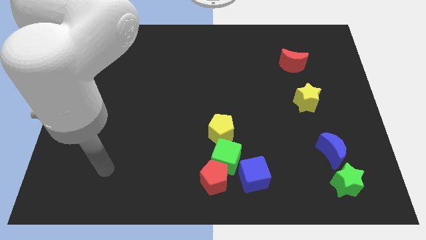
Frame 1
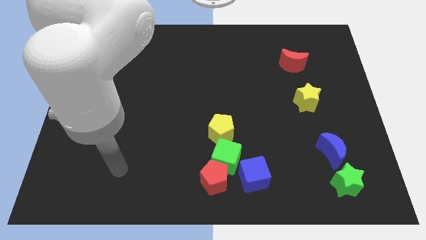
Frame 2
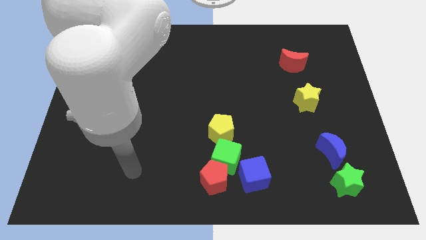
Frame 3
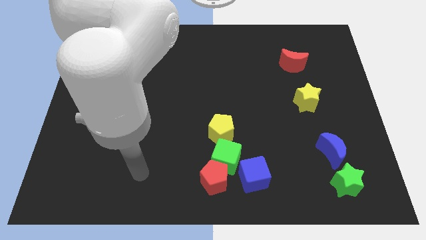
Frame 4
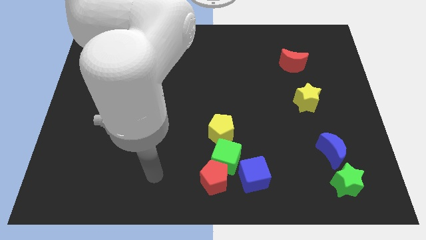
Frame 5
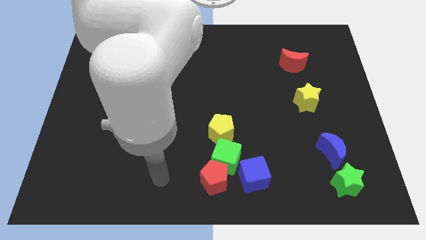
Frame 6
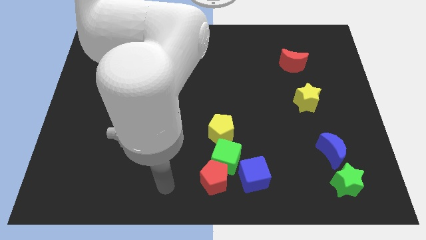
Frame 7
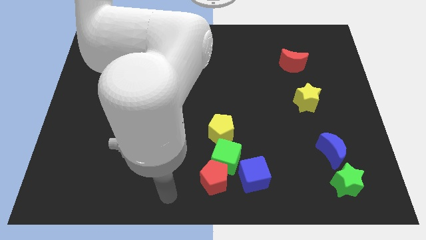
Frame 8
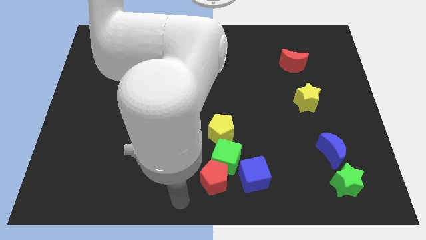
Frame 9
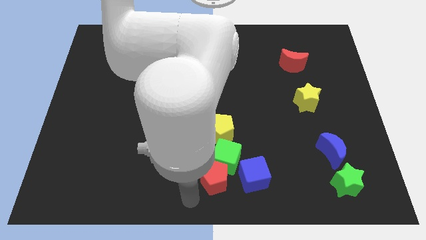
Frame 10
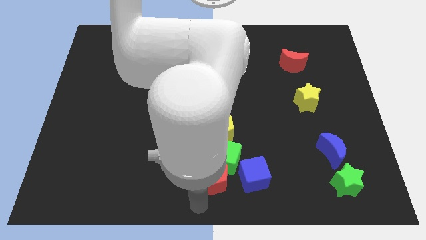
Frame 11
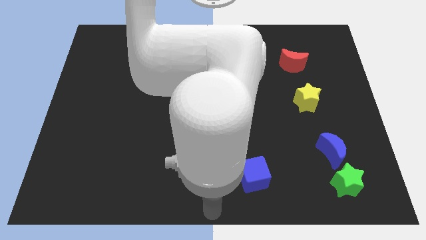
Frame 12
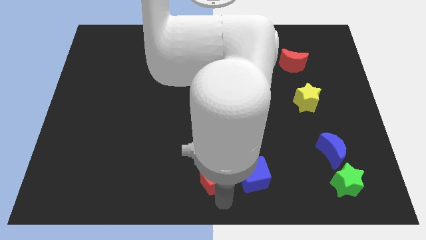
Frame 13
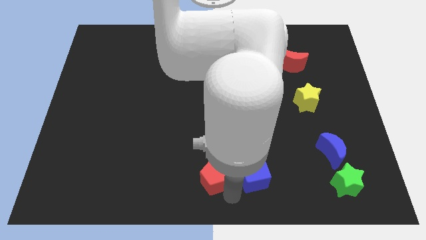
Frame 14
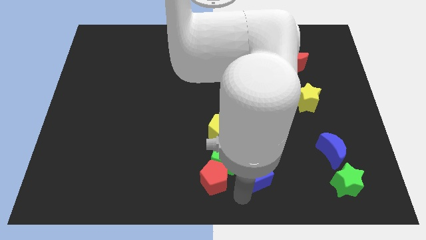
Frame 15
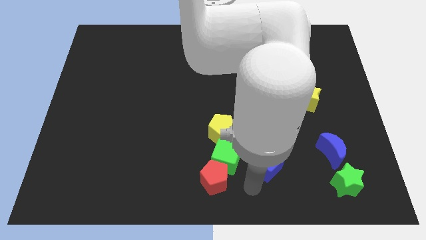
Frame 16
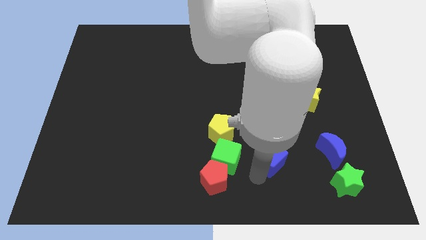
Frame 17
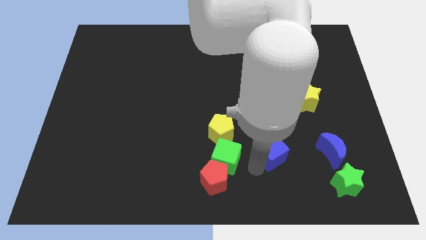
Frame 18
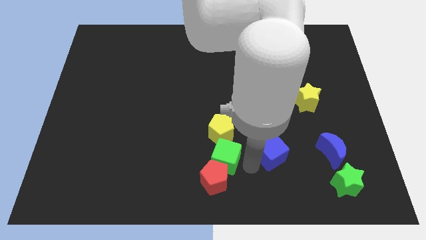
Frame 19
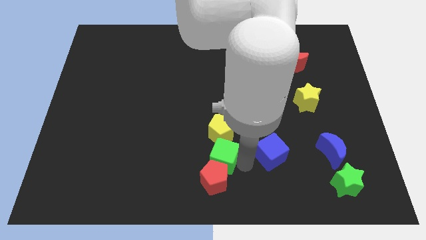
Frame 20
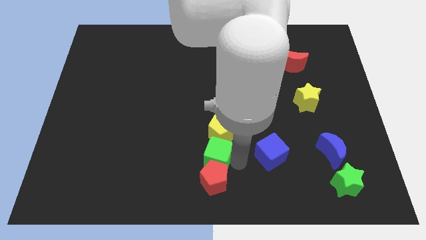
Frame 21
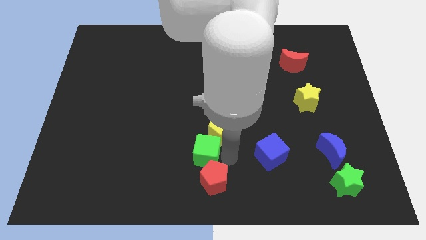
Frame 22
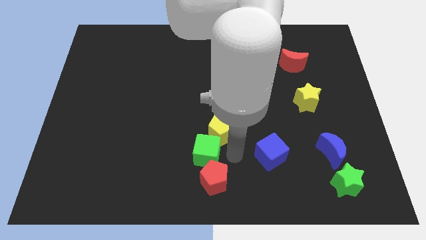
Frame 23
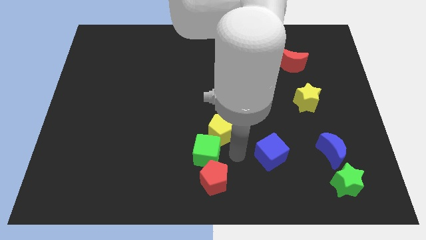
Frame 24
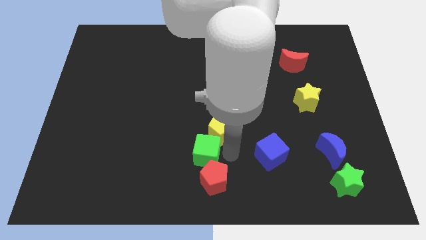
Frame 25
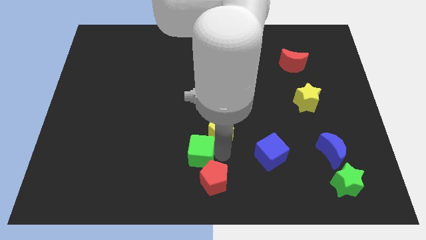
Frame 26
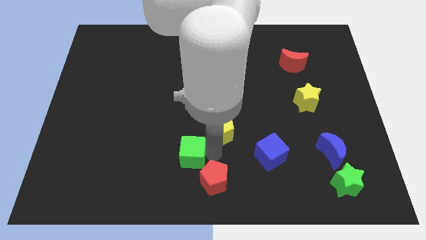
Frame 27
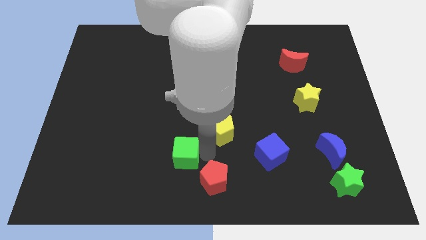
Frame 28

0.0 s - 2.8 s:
move the green cube away from the red pentagon, blue cube, and yellow pentagon

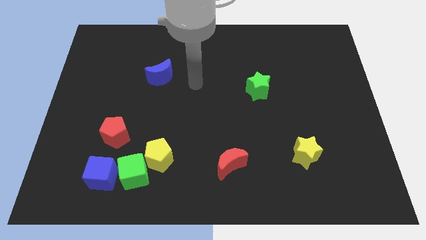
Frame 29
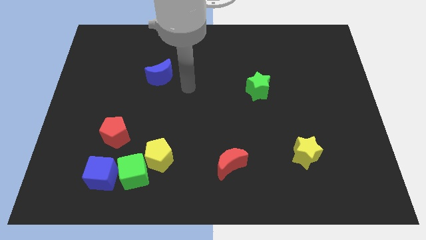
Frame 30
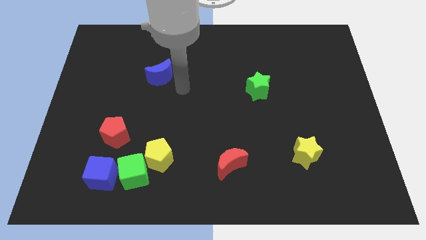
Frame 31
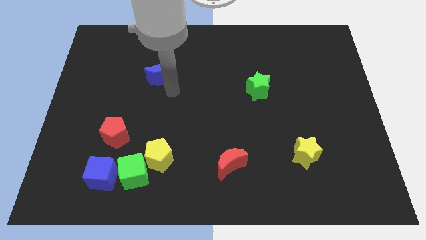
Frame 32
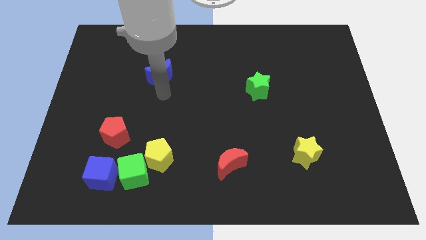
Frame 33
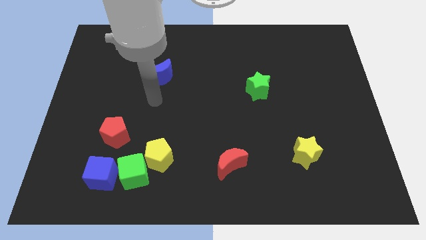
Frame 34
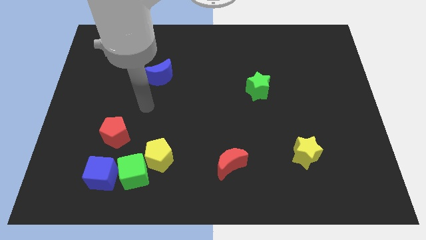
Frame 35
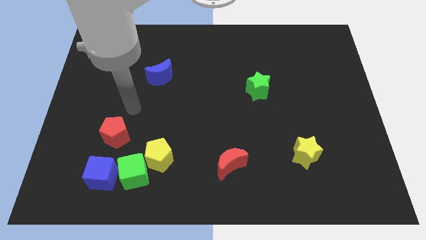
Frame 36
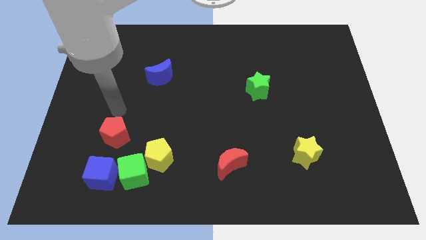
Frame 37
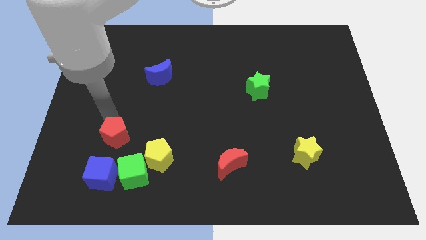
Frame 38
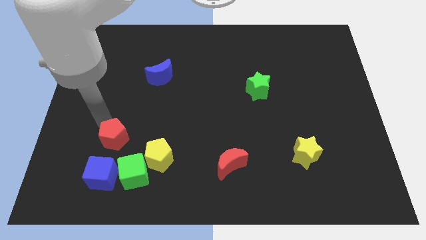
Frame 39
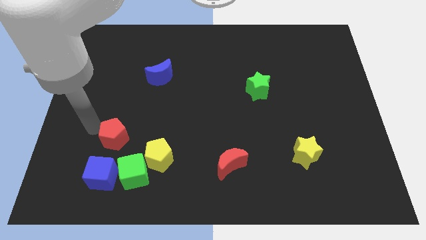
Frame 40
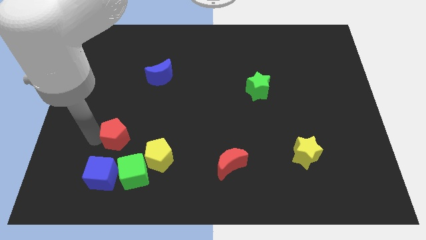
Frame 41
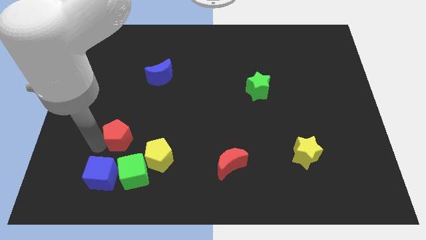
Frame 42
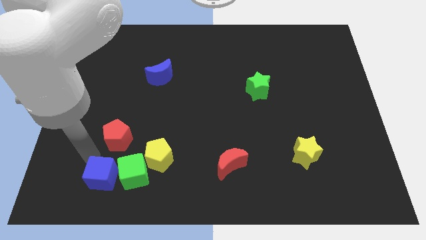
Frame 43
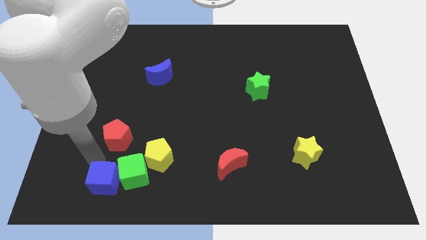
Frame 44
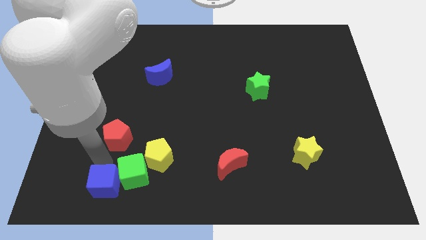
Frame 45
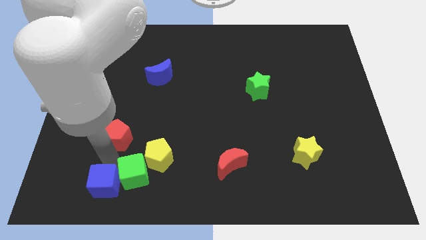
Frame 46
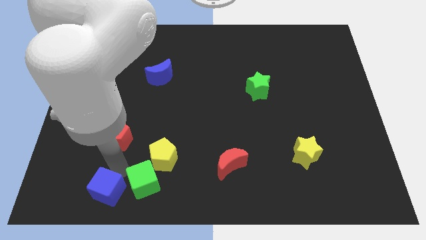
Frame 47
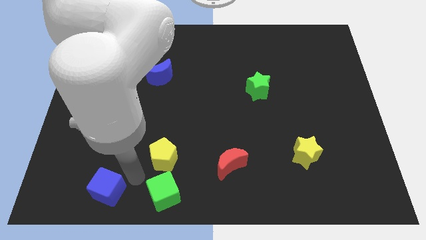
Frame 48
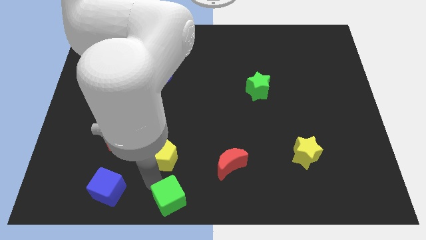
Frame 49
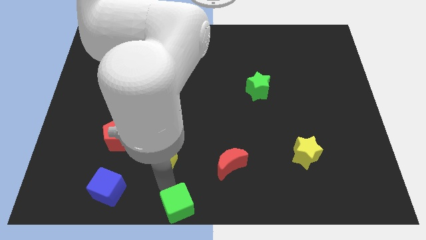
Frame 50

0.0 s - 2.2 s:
separate the yellow pentagon from the green cube

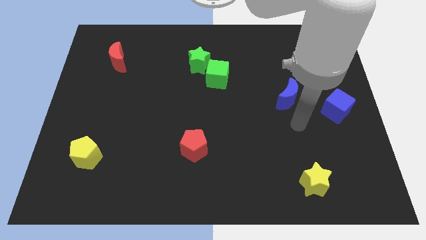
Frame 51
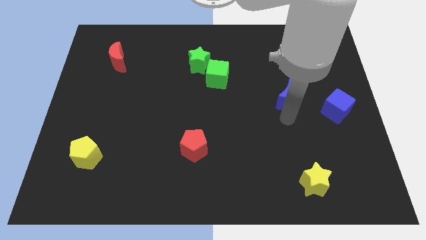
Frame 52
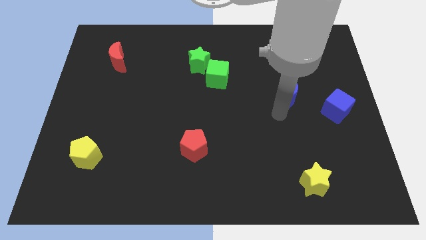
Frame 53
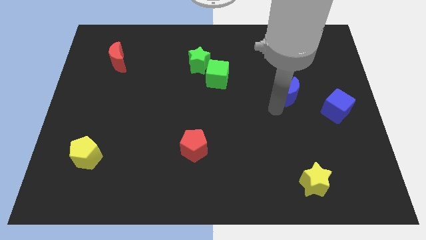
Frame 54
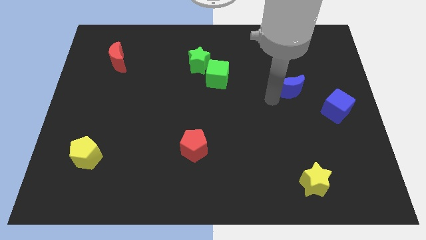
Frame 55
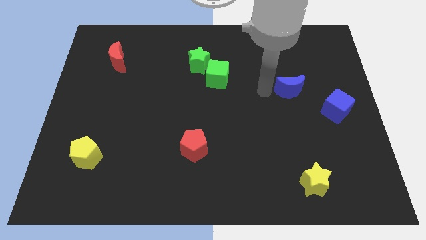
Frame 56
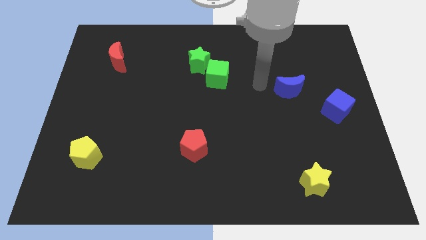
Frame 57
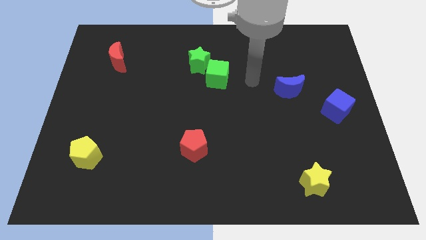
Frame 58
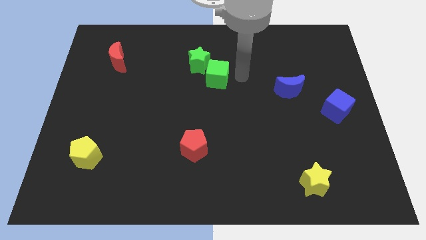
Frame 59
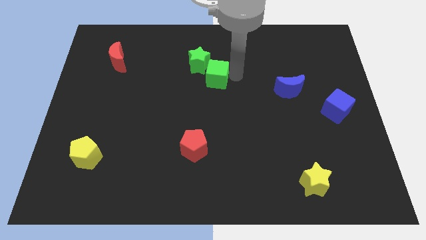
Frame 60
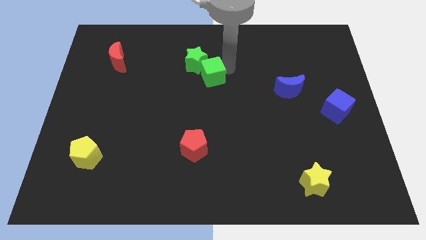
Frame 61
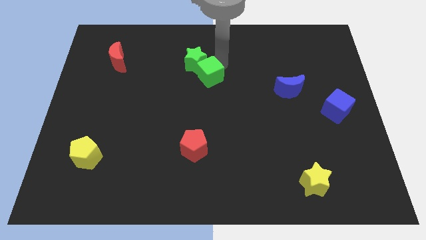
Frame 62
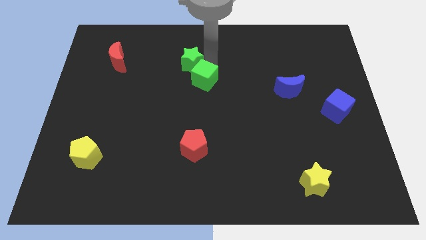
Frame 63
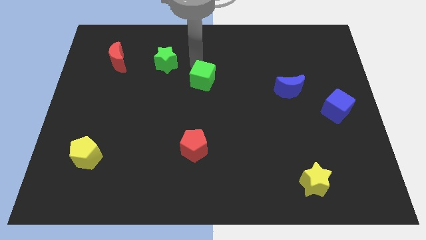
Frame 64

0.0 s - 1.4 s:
separate the green cube from the green star

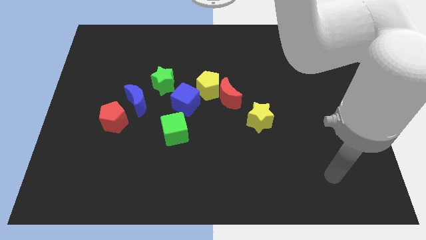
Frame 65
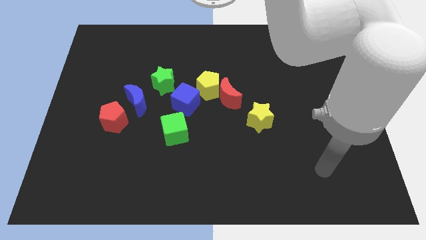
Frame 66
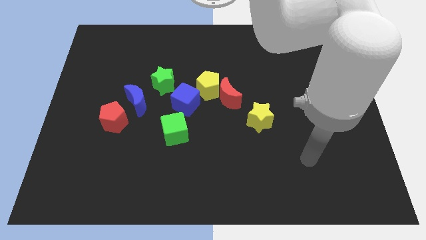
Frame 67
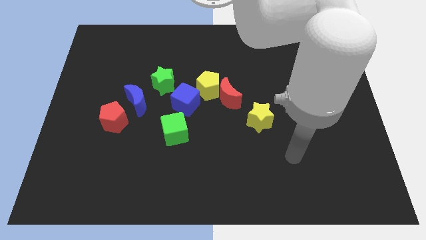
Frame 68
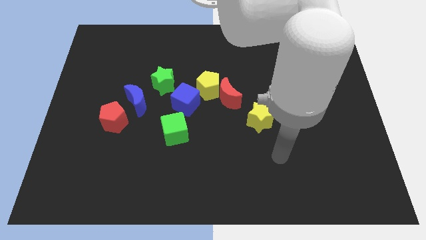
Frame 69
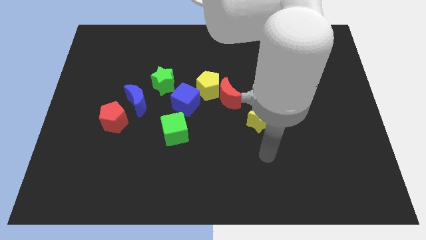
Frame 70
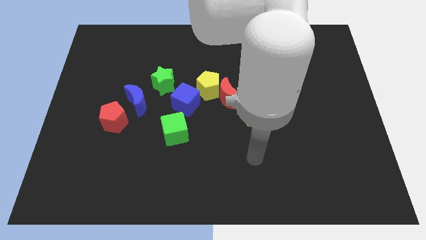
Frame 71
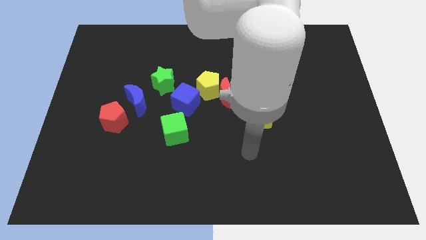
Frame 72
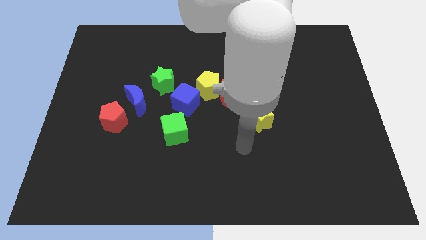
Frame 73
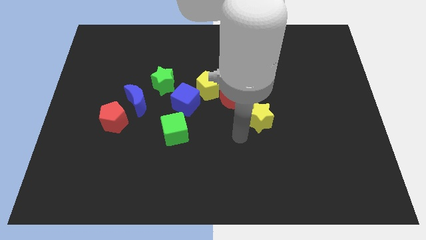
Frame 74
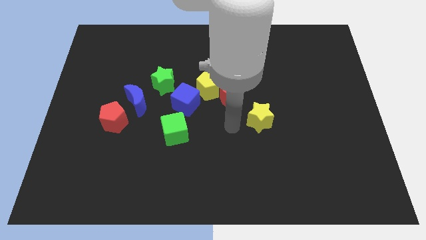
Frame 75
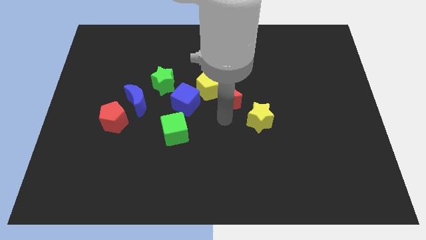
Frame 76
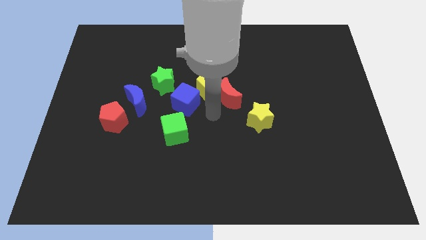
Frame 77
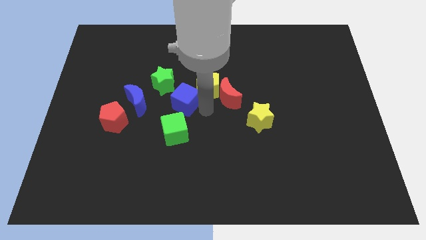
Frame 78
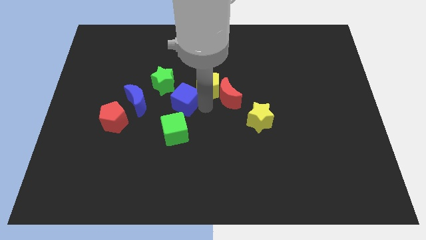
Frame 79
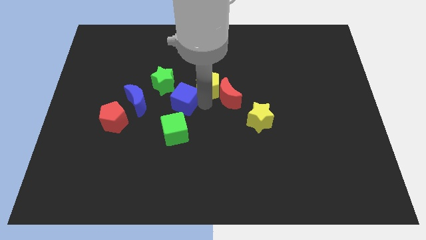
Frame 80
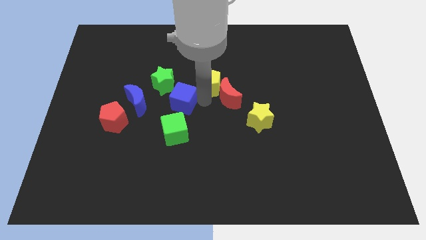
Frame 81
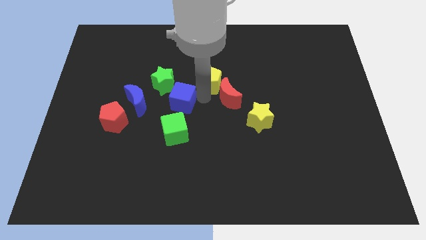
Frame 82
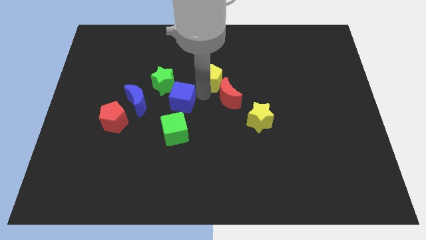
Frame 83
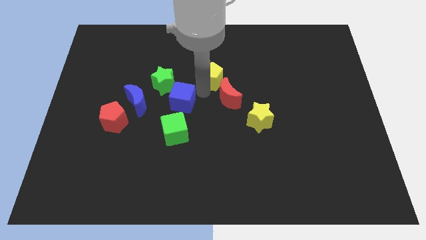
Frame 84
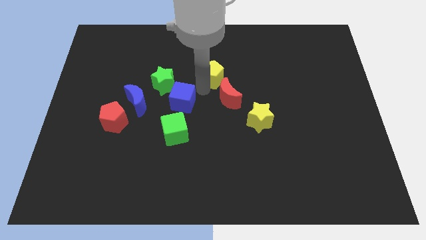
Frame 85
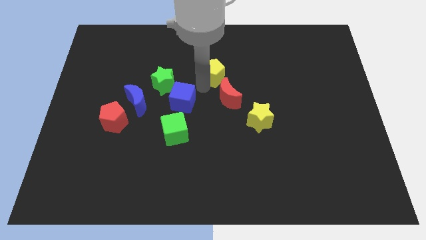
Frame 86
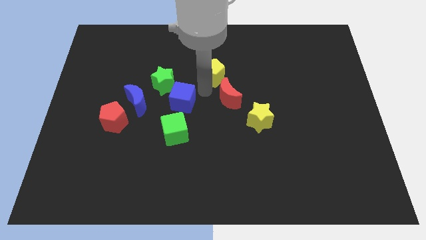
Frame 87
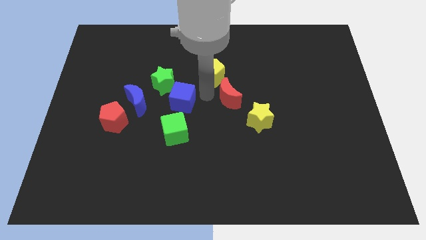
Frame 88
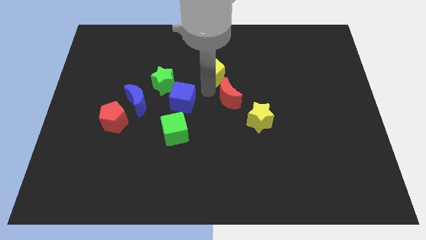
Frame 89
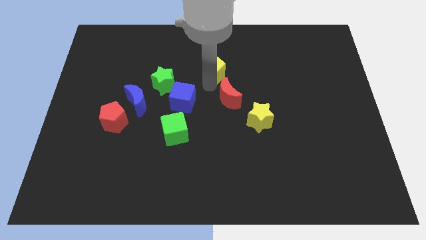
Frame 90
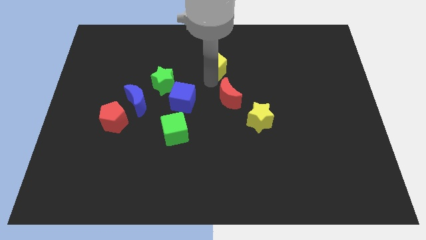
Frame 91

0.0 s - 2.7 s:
move the yellow pentagon away from the red moon and blue cube

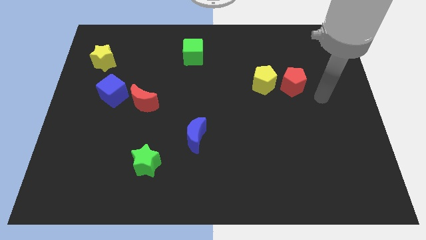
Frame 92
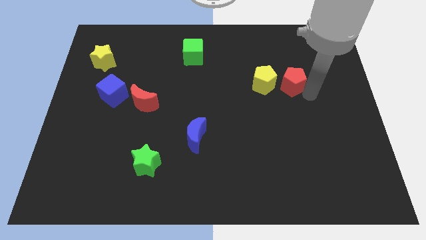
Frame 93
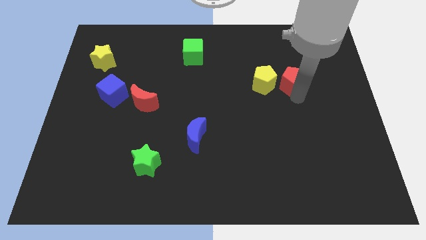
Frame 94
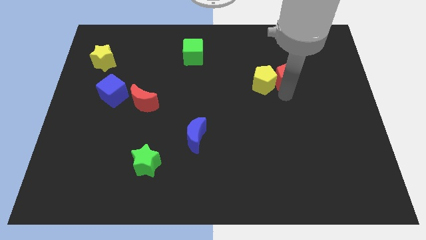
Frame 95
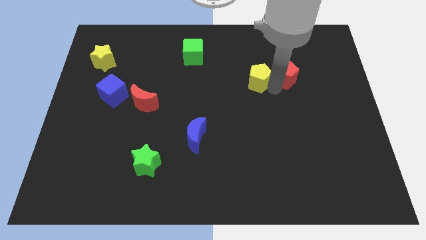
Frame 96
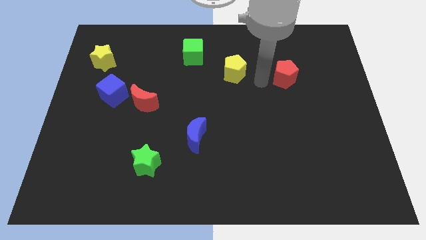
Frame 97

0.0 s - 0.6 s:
pull the red pentagon apart from the yellow pentagon
